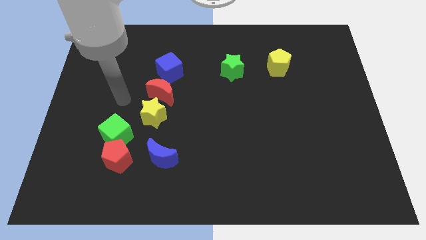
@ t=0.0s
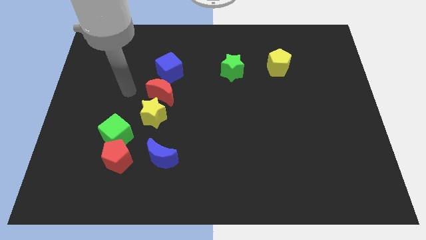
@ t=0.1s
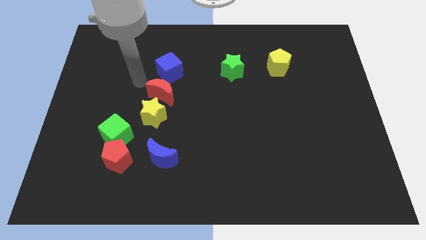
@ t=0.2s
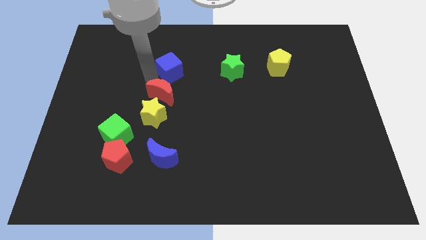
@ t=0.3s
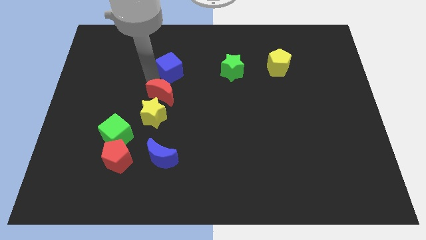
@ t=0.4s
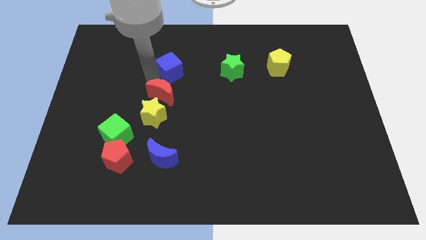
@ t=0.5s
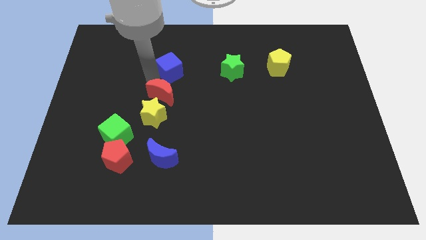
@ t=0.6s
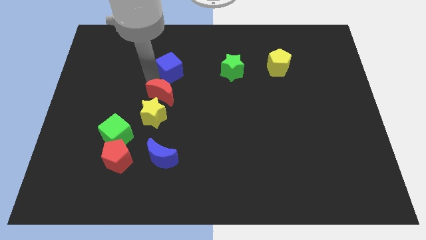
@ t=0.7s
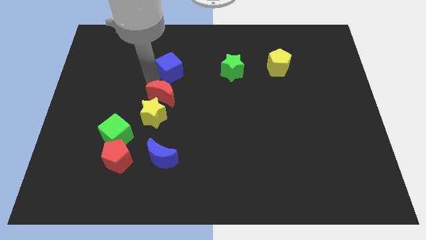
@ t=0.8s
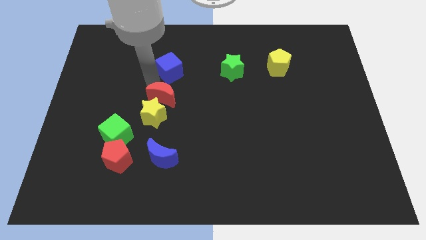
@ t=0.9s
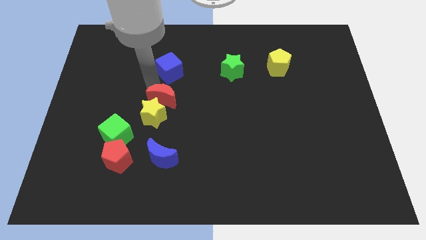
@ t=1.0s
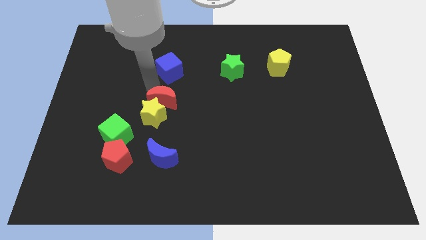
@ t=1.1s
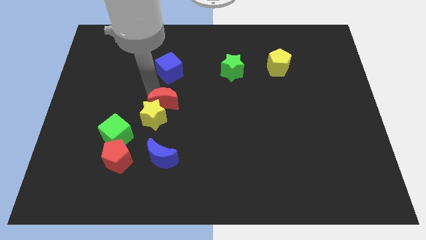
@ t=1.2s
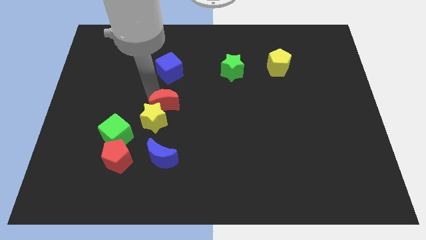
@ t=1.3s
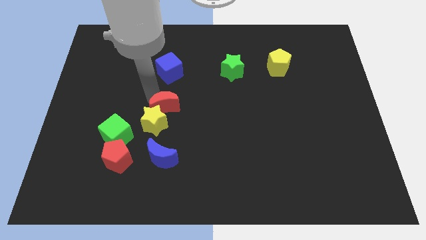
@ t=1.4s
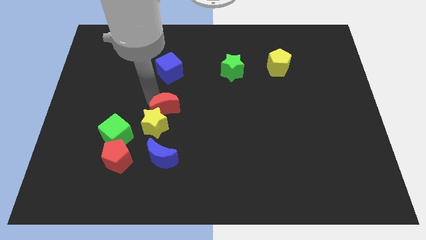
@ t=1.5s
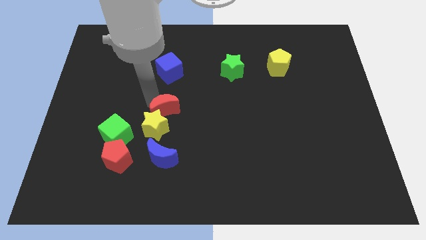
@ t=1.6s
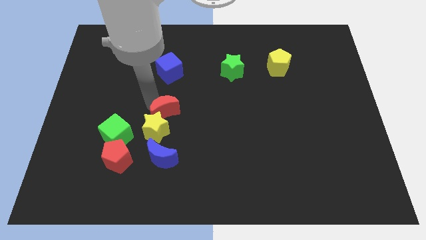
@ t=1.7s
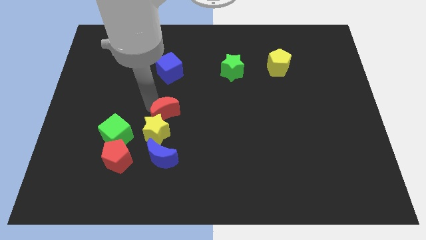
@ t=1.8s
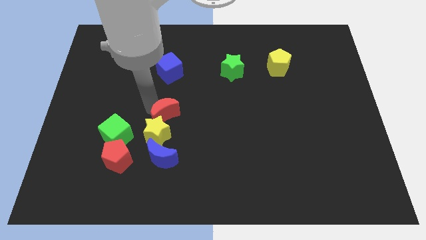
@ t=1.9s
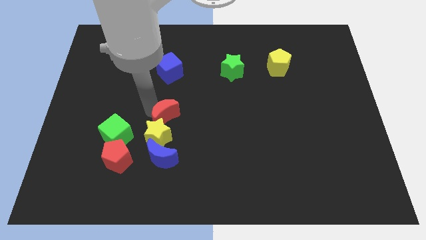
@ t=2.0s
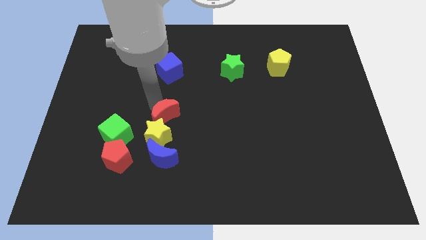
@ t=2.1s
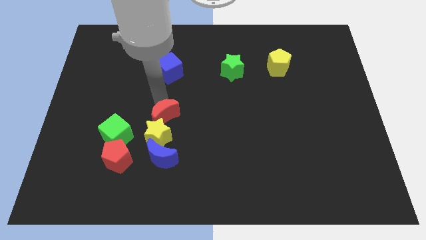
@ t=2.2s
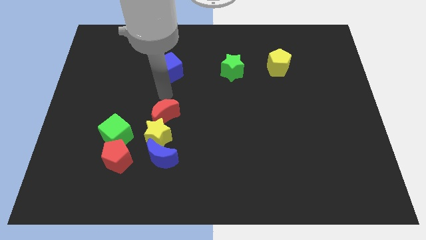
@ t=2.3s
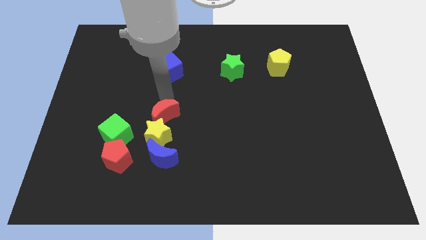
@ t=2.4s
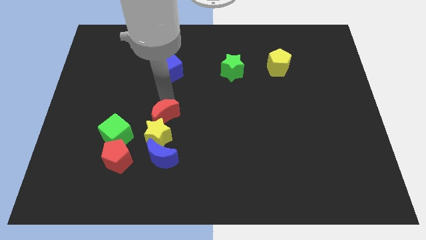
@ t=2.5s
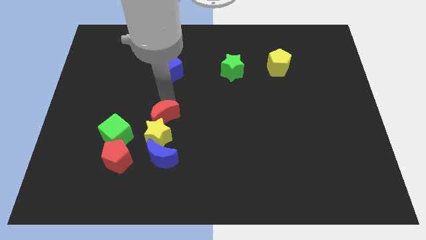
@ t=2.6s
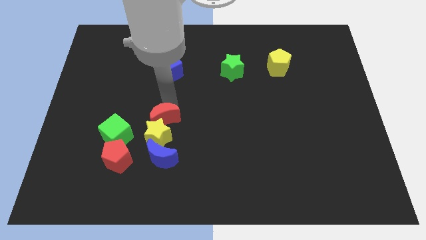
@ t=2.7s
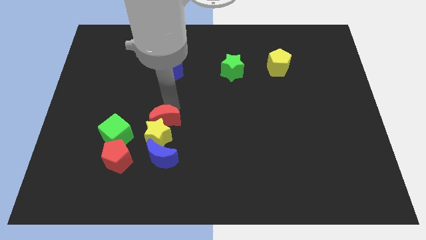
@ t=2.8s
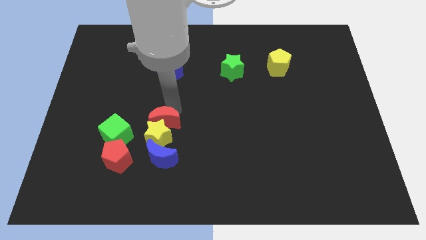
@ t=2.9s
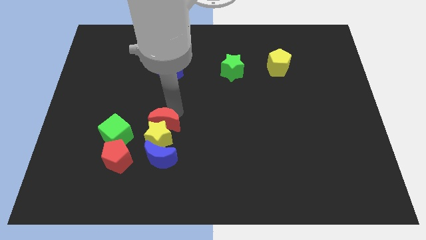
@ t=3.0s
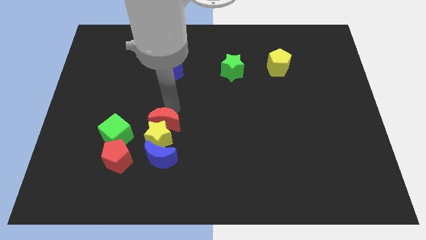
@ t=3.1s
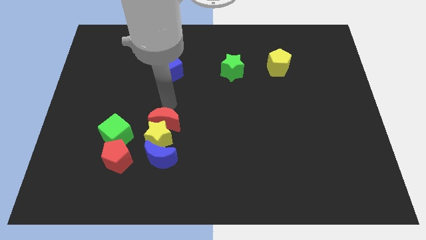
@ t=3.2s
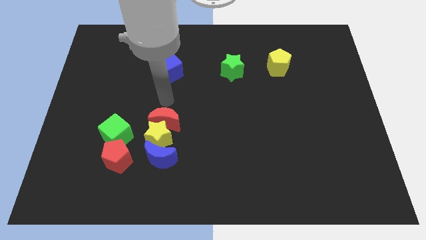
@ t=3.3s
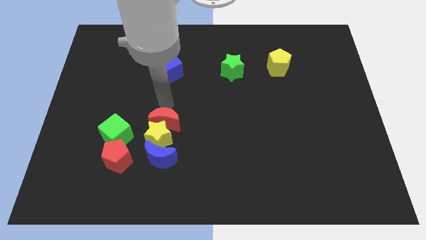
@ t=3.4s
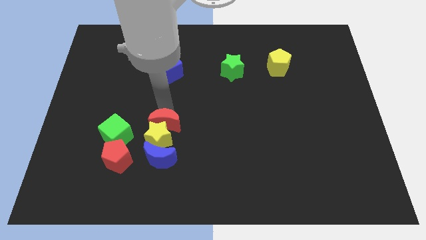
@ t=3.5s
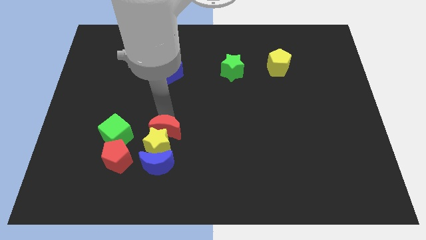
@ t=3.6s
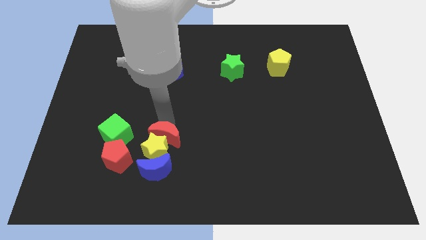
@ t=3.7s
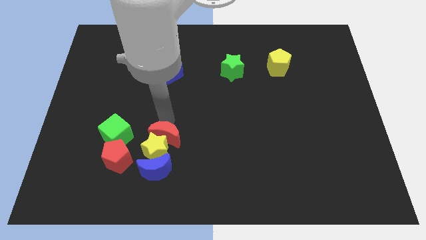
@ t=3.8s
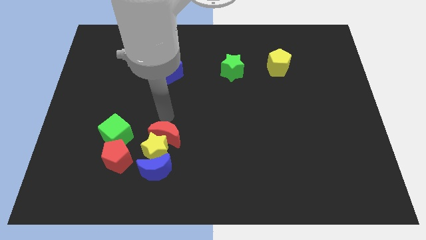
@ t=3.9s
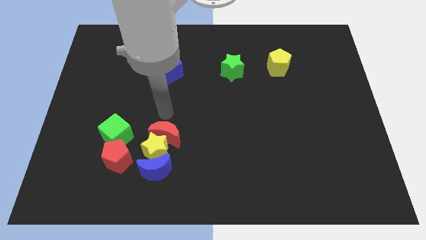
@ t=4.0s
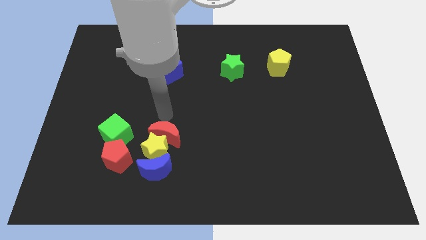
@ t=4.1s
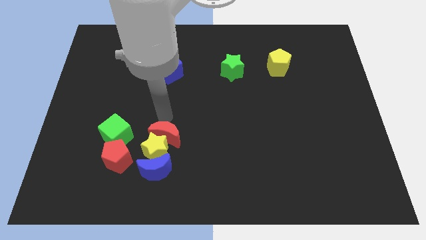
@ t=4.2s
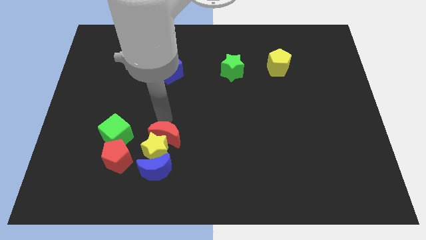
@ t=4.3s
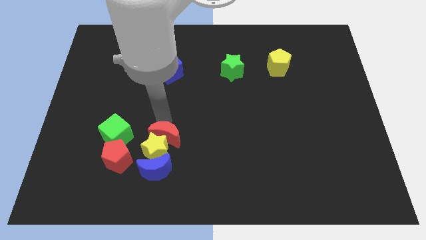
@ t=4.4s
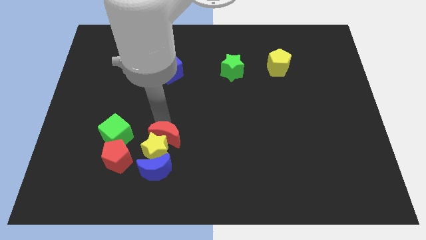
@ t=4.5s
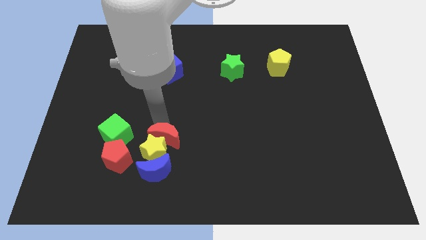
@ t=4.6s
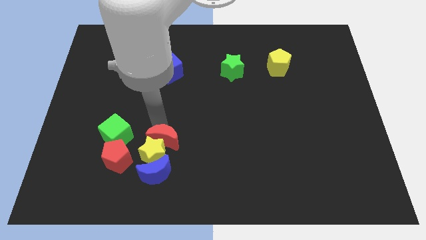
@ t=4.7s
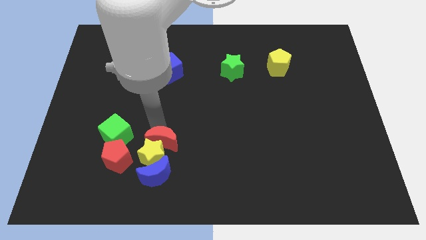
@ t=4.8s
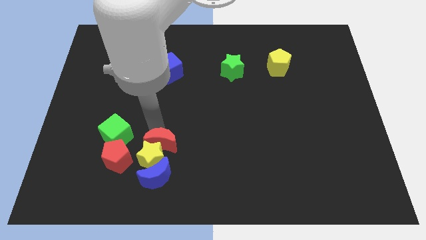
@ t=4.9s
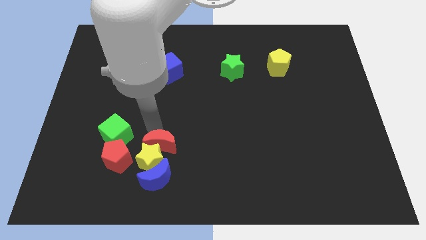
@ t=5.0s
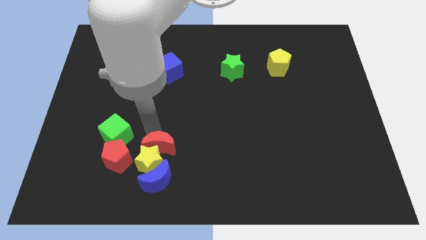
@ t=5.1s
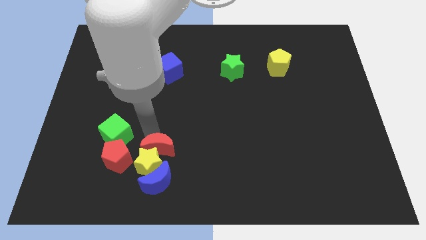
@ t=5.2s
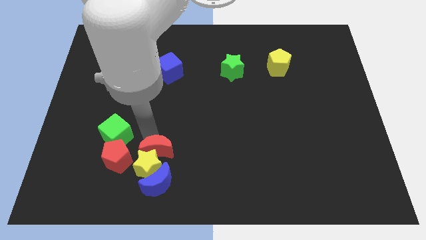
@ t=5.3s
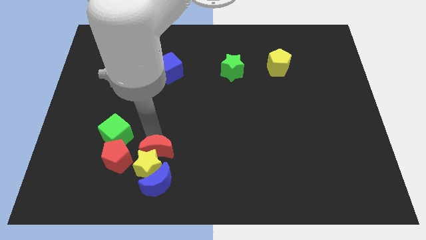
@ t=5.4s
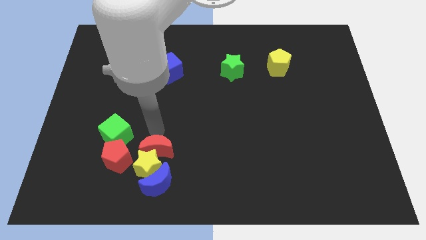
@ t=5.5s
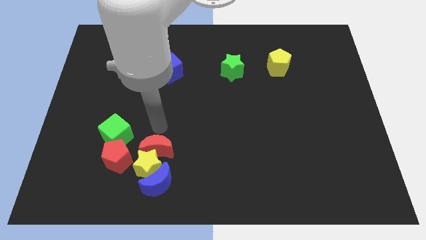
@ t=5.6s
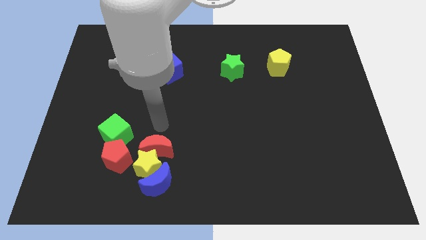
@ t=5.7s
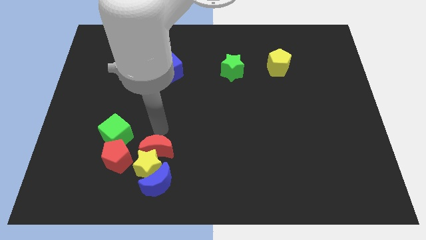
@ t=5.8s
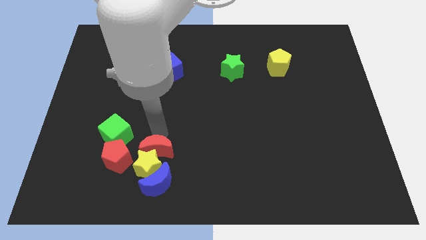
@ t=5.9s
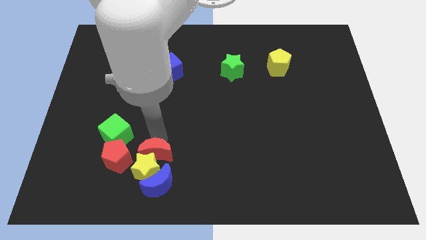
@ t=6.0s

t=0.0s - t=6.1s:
pull the red moon apart from the yellow star and blue cube

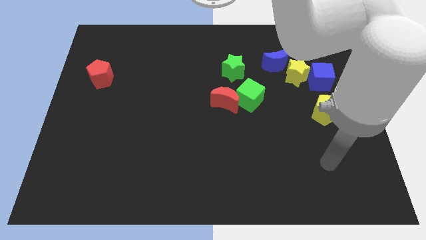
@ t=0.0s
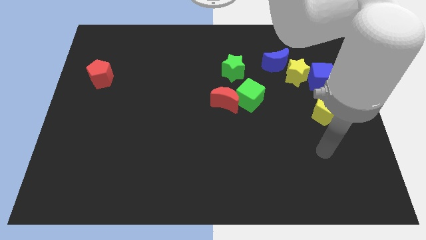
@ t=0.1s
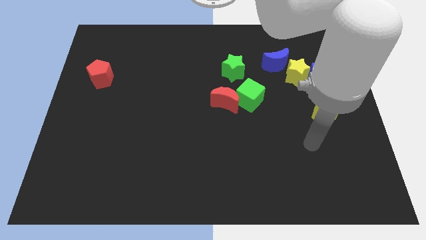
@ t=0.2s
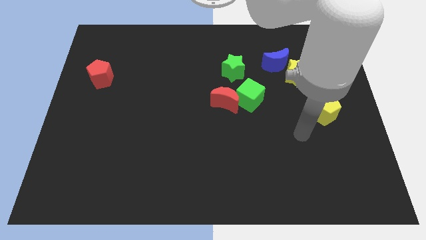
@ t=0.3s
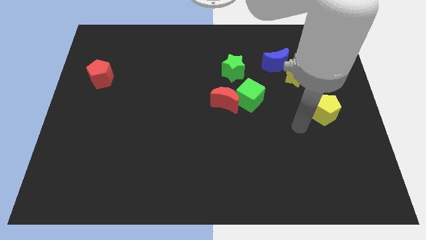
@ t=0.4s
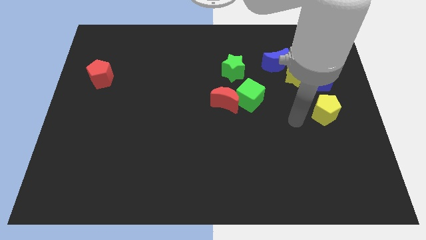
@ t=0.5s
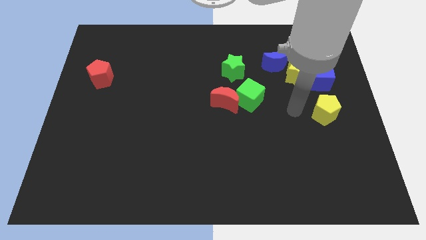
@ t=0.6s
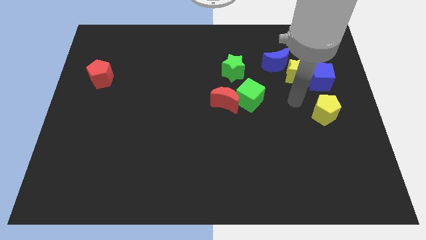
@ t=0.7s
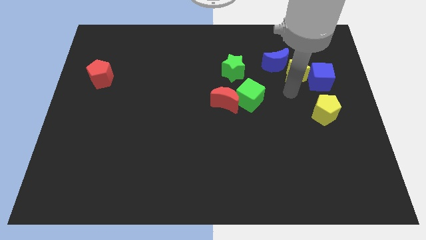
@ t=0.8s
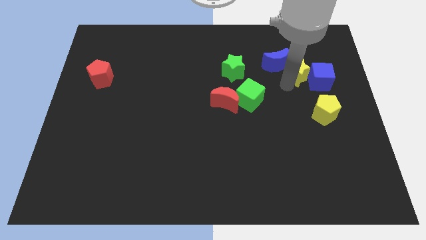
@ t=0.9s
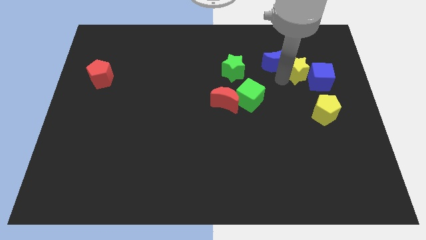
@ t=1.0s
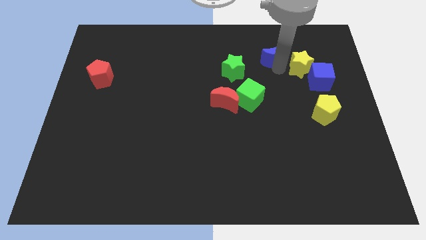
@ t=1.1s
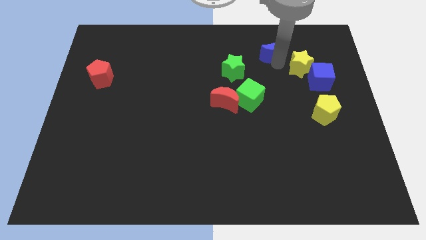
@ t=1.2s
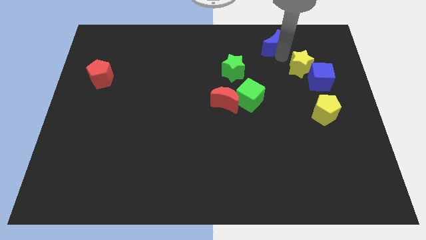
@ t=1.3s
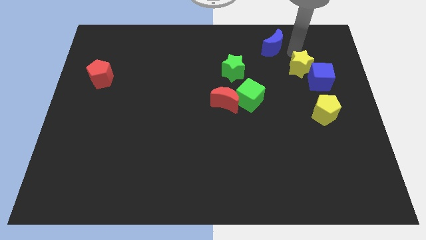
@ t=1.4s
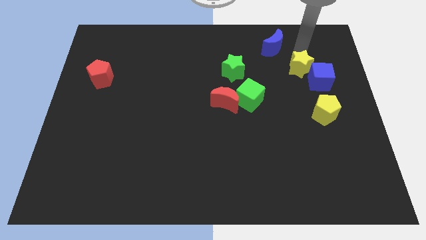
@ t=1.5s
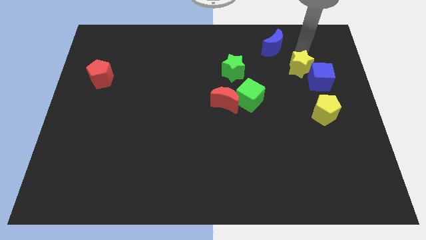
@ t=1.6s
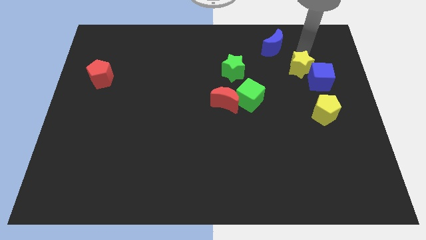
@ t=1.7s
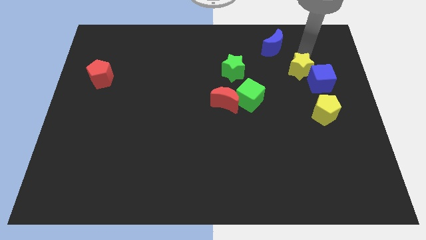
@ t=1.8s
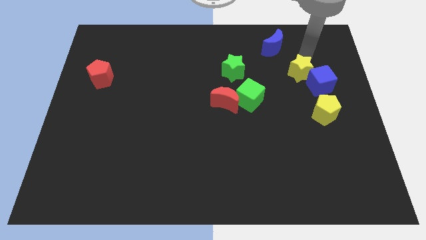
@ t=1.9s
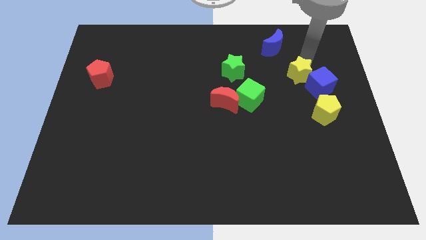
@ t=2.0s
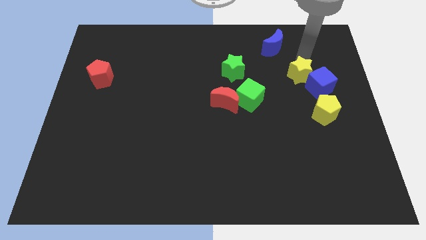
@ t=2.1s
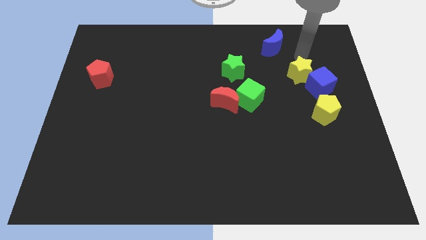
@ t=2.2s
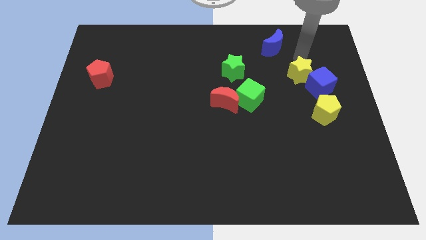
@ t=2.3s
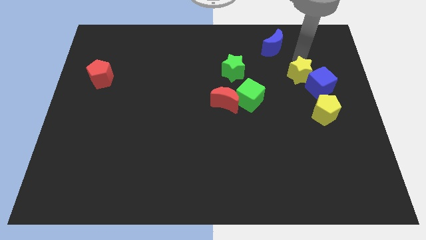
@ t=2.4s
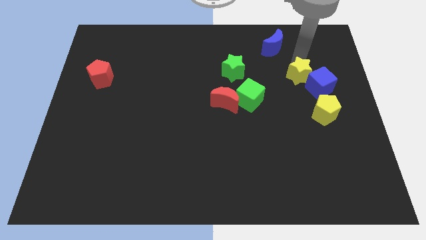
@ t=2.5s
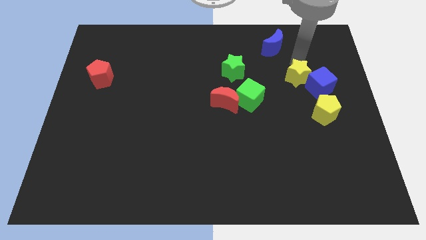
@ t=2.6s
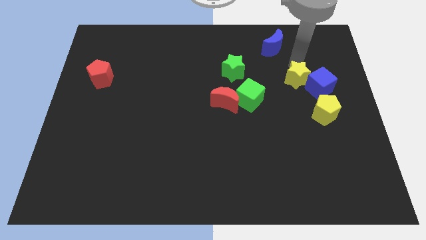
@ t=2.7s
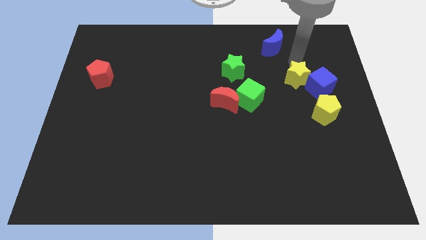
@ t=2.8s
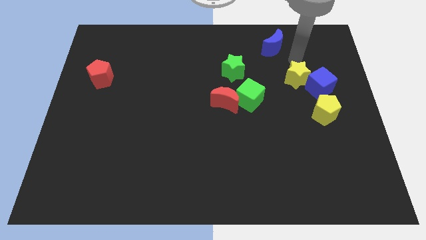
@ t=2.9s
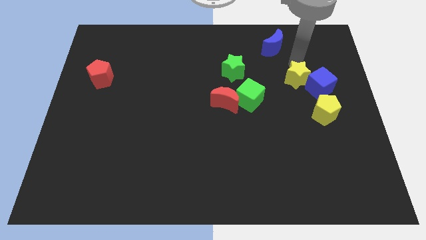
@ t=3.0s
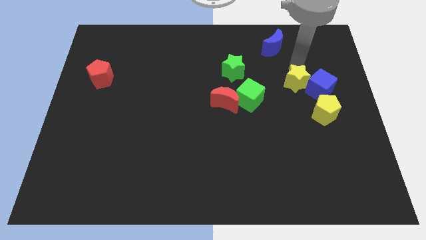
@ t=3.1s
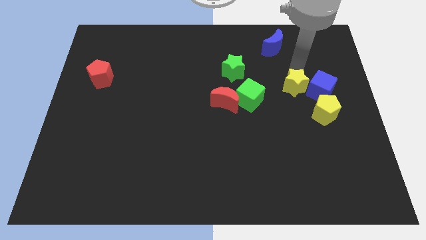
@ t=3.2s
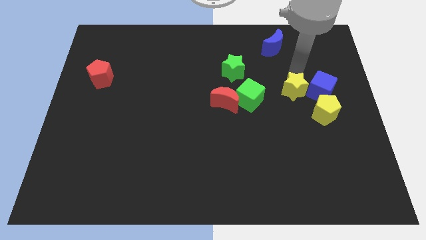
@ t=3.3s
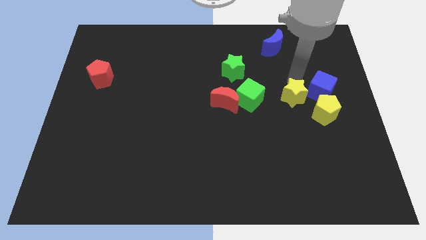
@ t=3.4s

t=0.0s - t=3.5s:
separate the yellow star from the blue cube and blue moon
